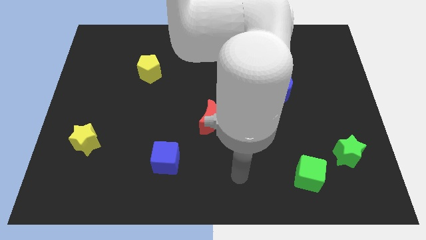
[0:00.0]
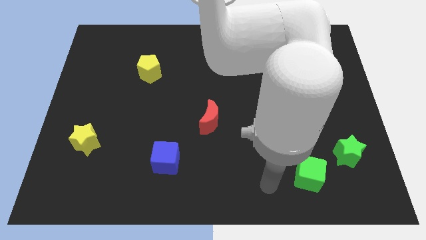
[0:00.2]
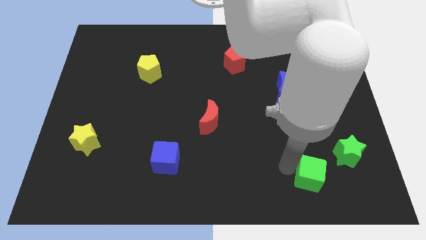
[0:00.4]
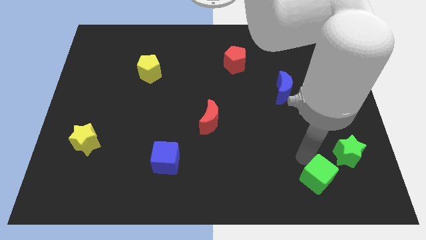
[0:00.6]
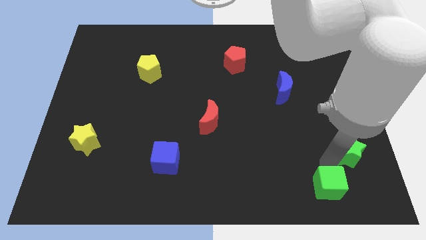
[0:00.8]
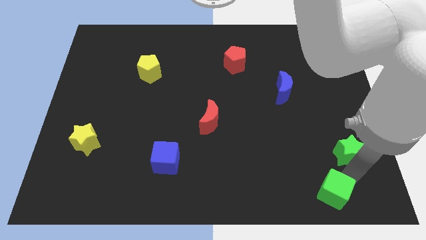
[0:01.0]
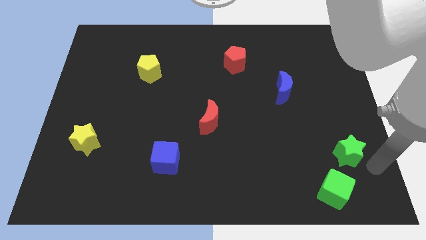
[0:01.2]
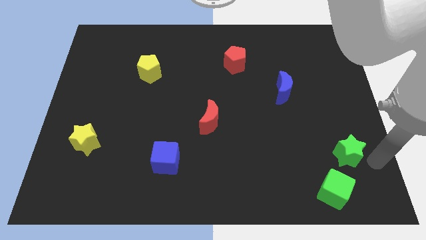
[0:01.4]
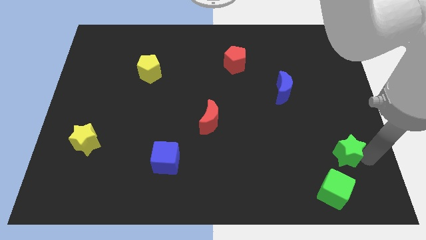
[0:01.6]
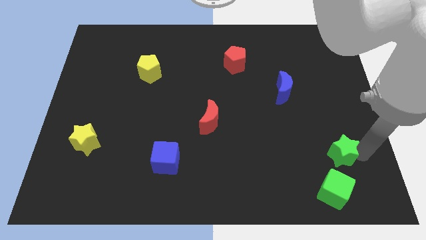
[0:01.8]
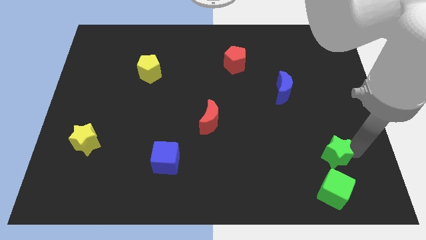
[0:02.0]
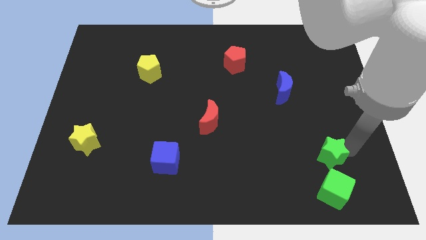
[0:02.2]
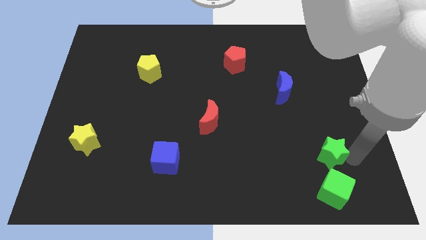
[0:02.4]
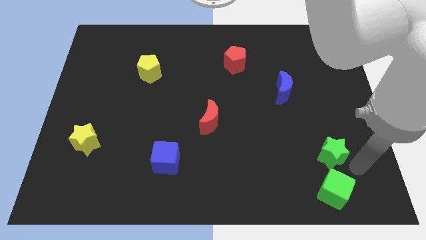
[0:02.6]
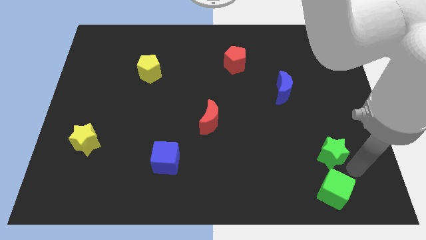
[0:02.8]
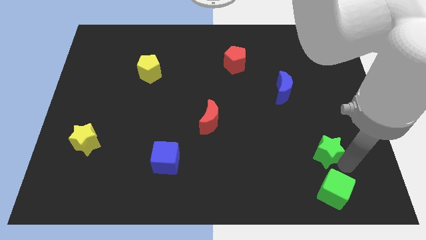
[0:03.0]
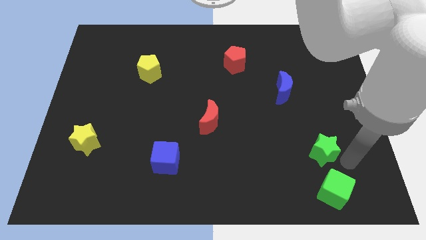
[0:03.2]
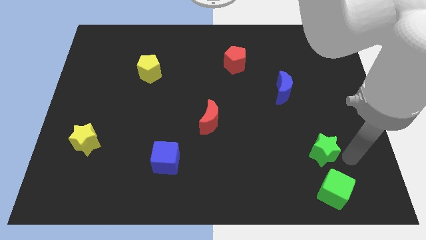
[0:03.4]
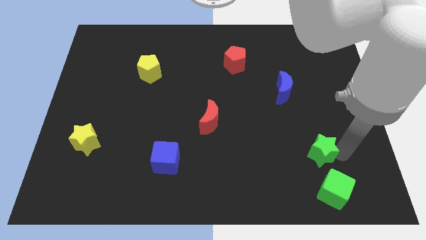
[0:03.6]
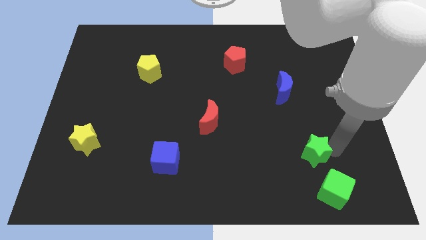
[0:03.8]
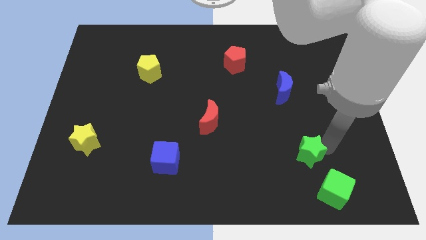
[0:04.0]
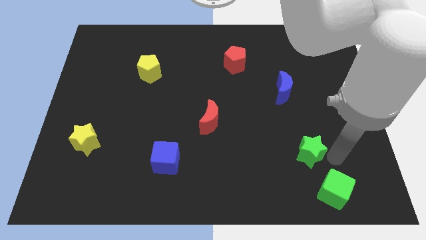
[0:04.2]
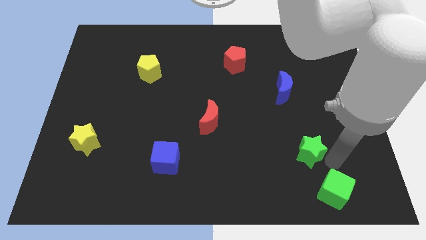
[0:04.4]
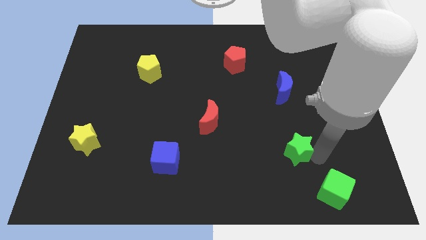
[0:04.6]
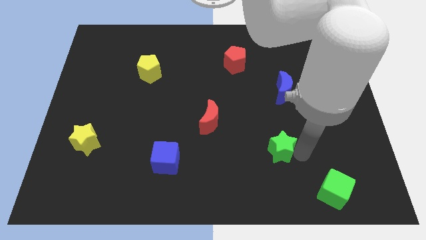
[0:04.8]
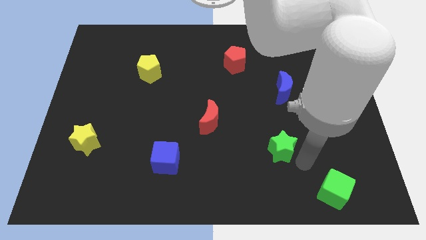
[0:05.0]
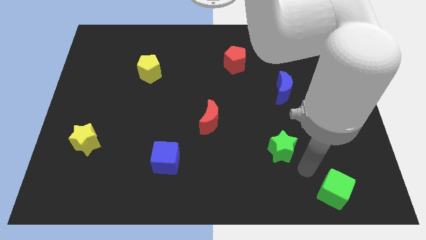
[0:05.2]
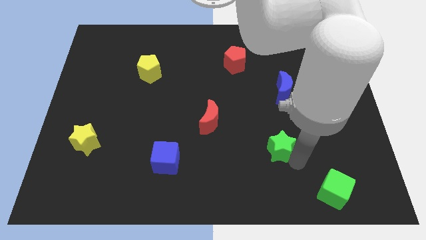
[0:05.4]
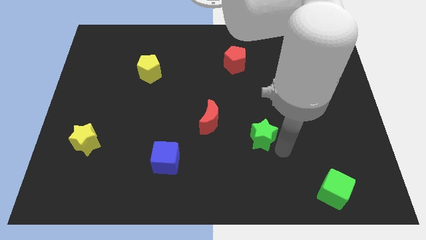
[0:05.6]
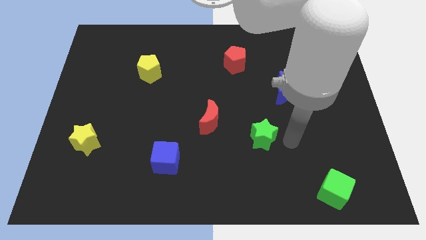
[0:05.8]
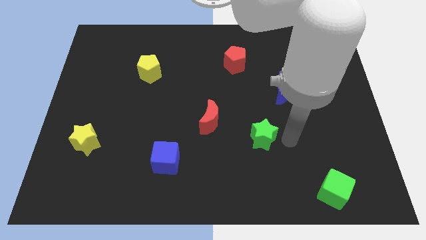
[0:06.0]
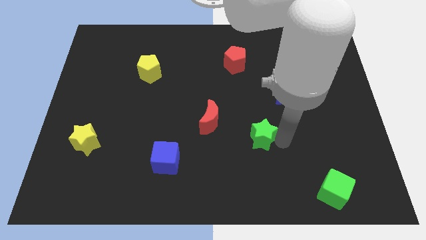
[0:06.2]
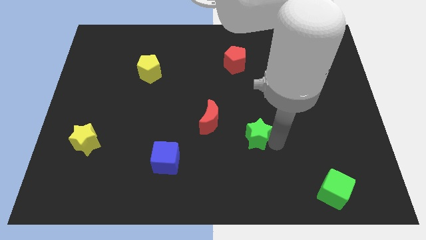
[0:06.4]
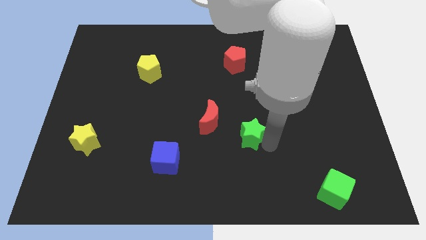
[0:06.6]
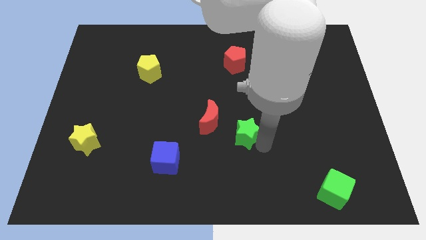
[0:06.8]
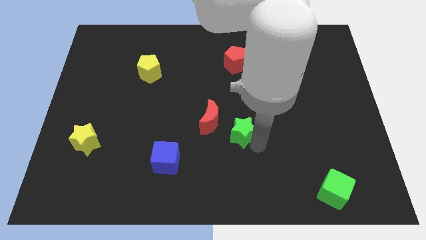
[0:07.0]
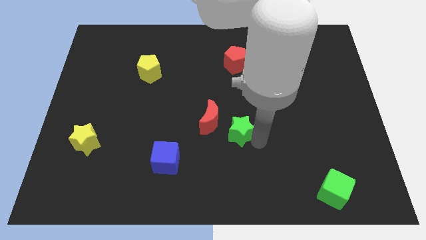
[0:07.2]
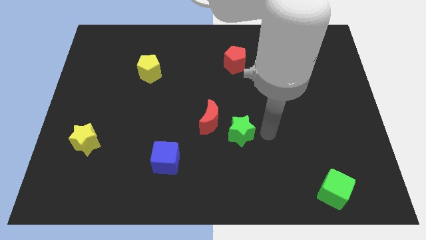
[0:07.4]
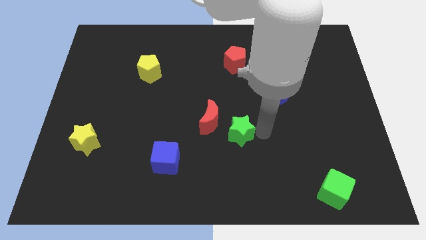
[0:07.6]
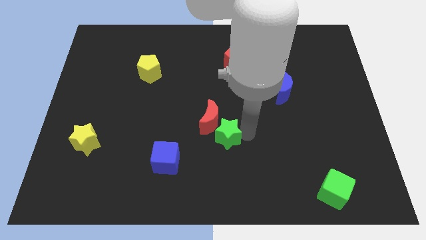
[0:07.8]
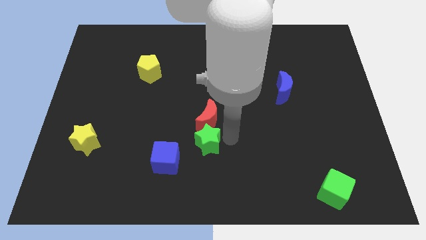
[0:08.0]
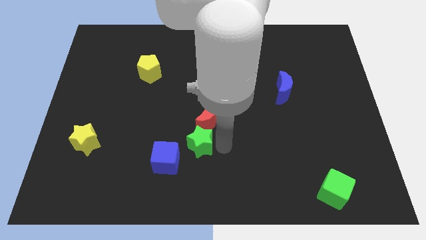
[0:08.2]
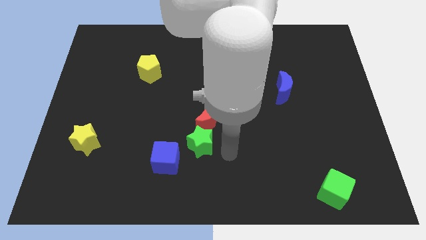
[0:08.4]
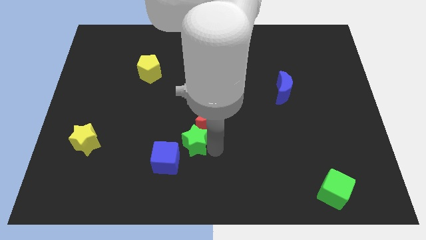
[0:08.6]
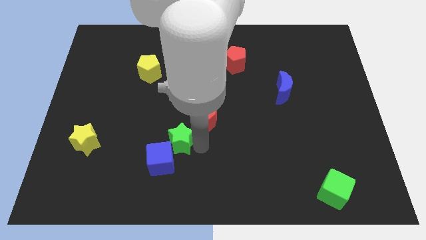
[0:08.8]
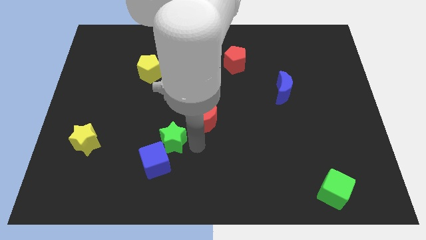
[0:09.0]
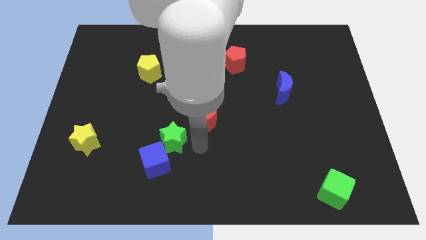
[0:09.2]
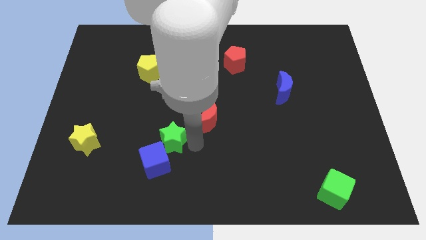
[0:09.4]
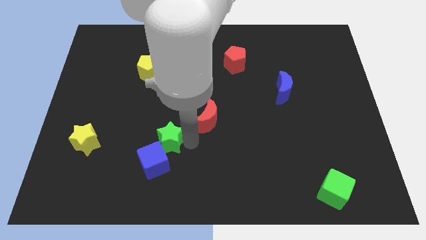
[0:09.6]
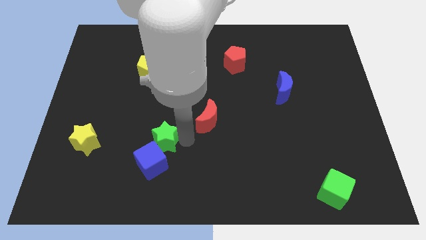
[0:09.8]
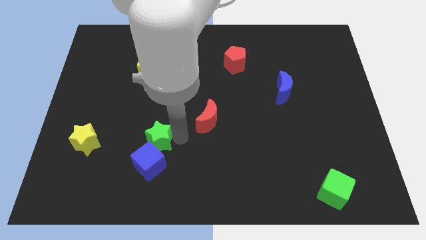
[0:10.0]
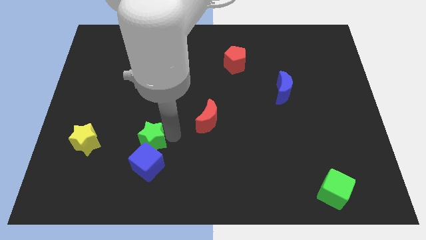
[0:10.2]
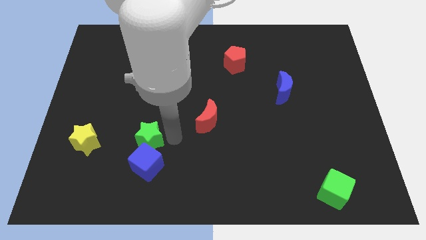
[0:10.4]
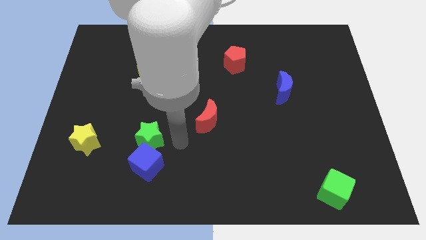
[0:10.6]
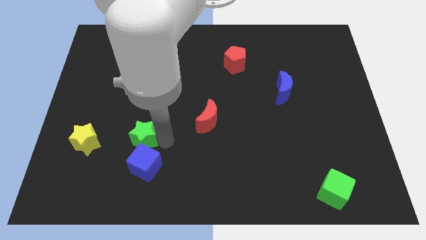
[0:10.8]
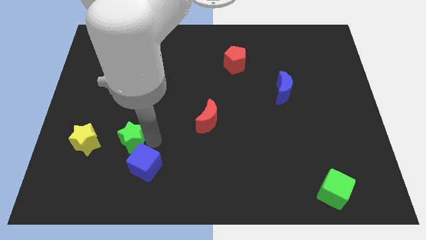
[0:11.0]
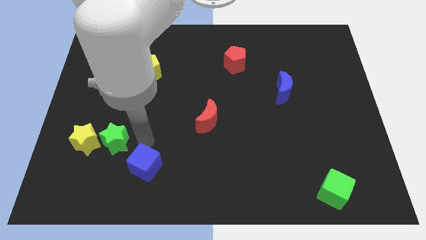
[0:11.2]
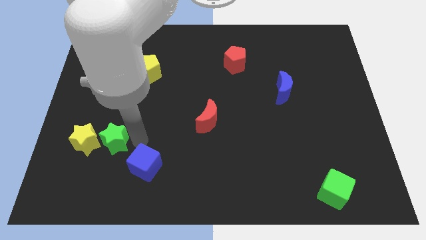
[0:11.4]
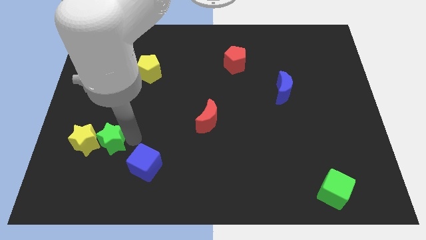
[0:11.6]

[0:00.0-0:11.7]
move the green star next to the yellow star
